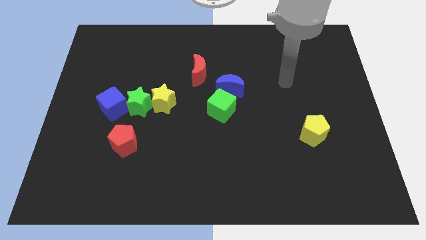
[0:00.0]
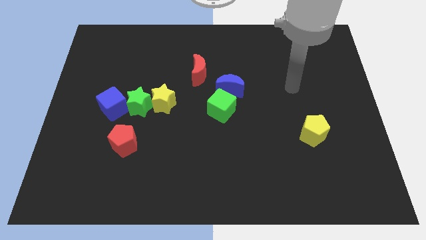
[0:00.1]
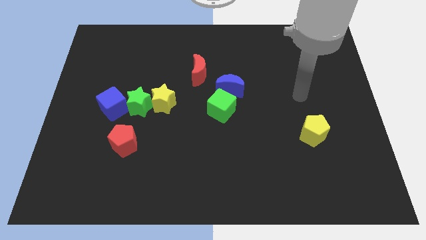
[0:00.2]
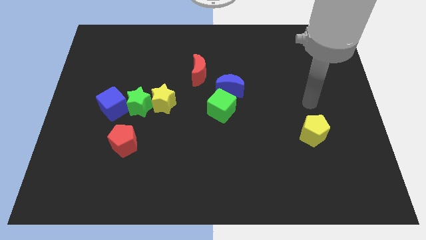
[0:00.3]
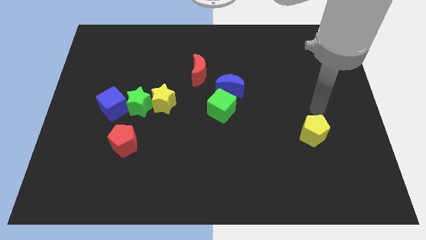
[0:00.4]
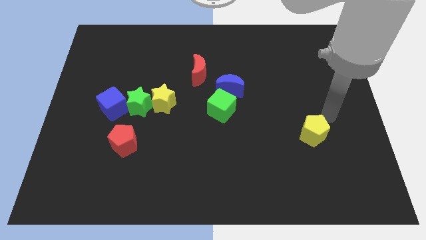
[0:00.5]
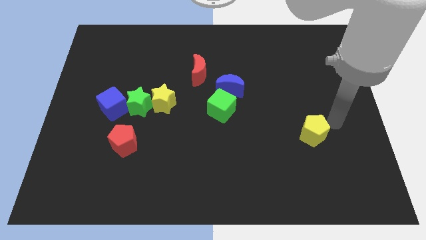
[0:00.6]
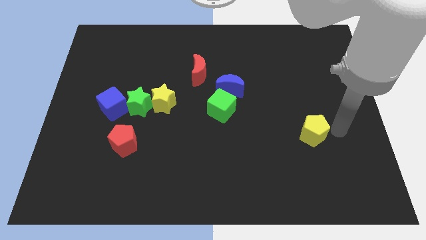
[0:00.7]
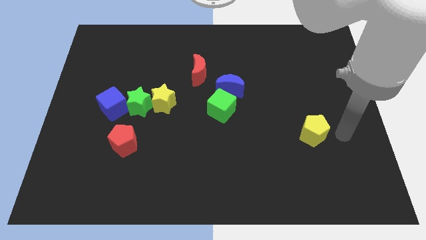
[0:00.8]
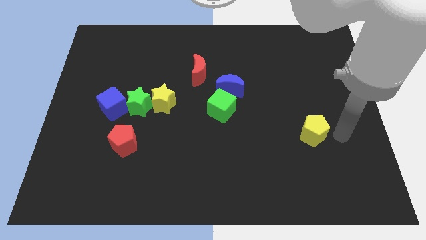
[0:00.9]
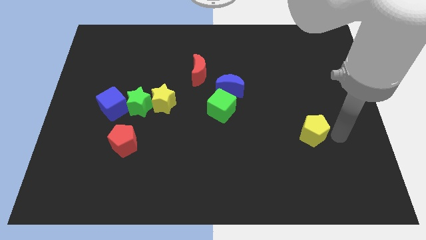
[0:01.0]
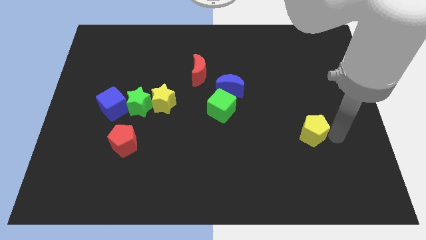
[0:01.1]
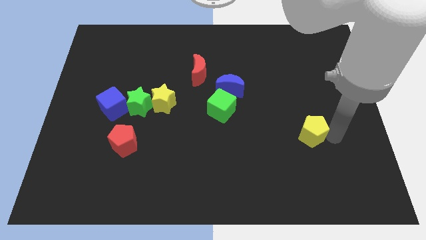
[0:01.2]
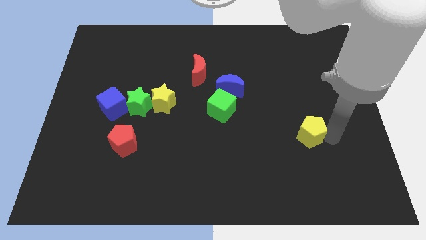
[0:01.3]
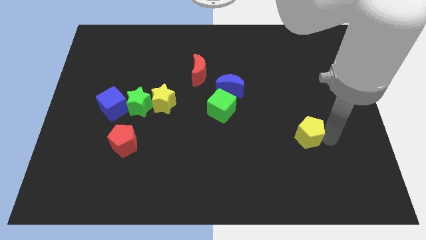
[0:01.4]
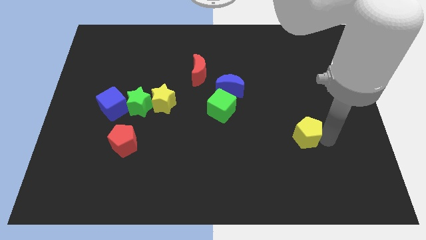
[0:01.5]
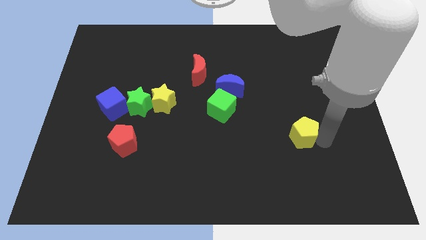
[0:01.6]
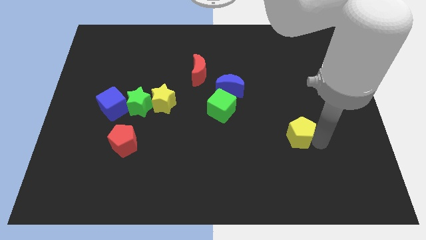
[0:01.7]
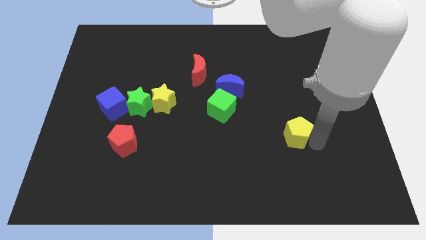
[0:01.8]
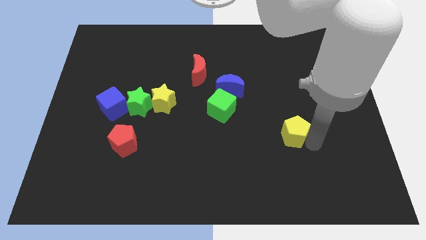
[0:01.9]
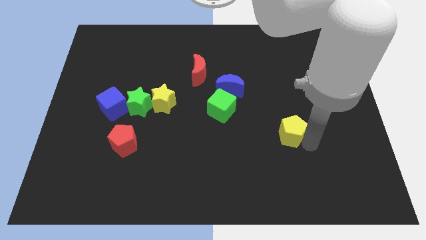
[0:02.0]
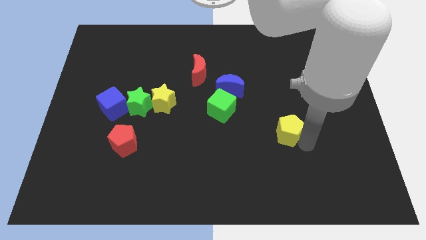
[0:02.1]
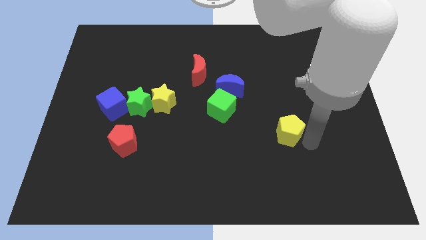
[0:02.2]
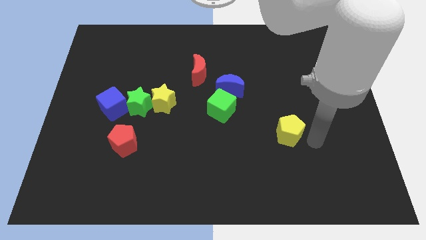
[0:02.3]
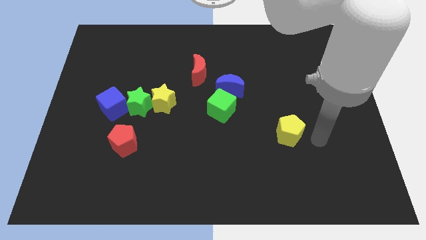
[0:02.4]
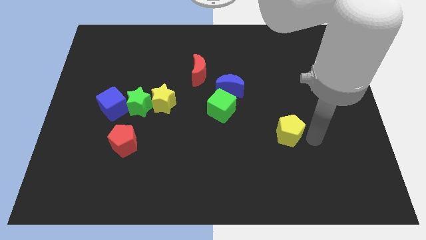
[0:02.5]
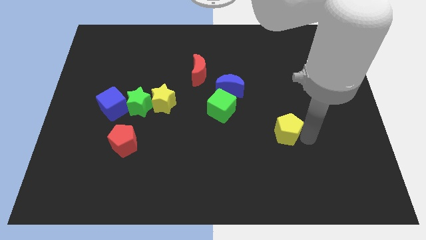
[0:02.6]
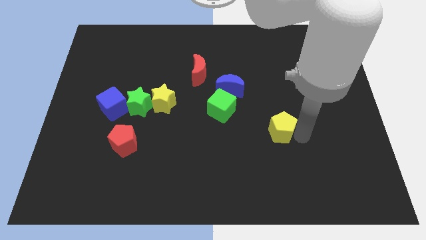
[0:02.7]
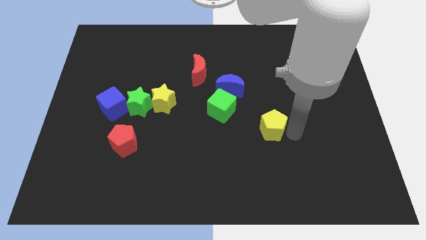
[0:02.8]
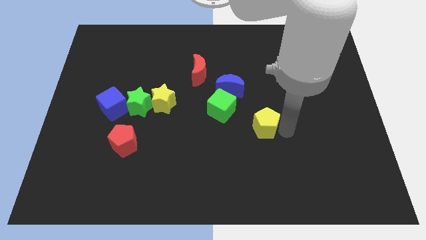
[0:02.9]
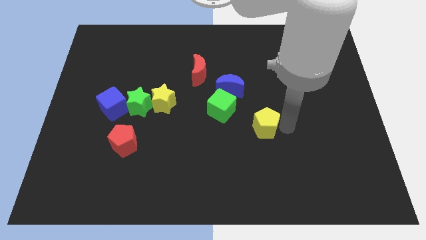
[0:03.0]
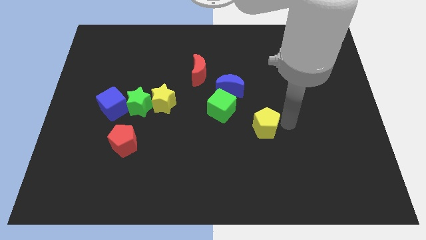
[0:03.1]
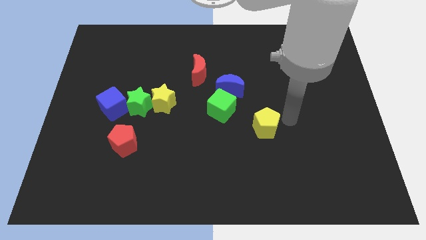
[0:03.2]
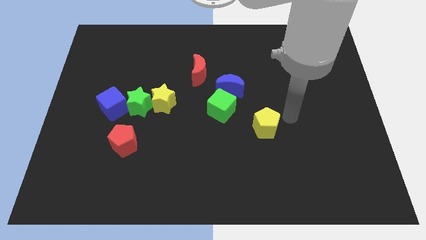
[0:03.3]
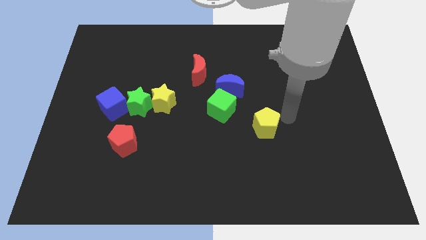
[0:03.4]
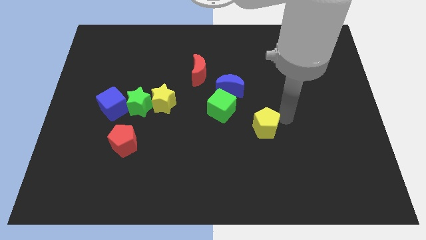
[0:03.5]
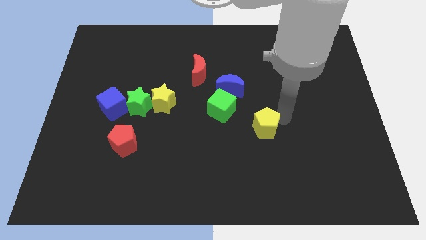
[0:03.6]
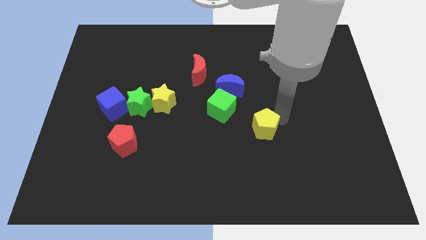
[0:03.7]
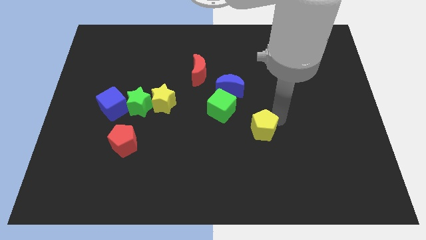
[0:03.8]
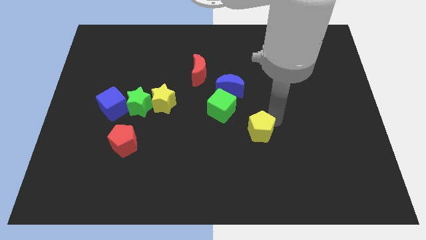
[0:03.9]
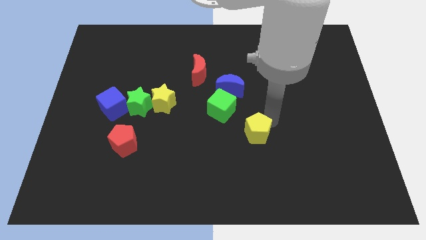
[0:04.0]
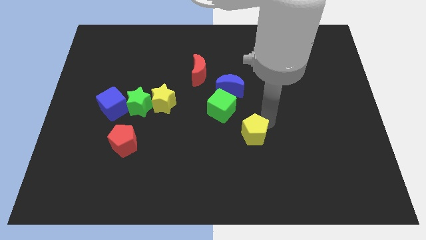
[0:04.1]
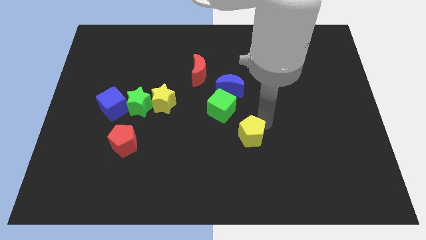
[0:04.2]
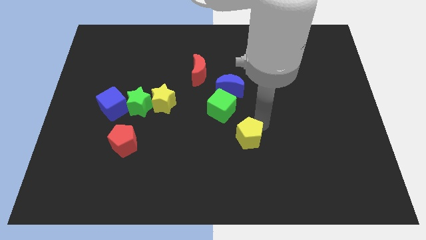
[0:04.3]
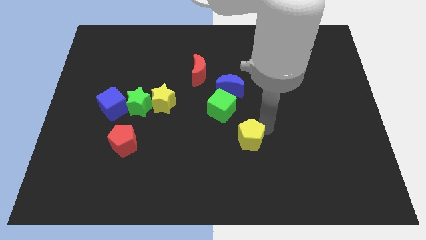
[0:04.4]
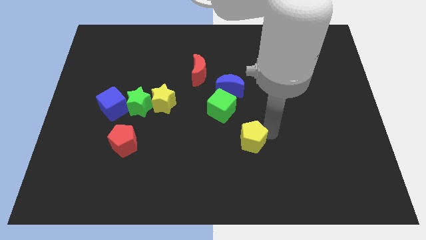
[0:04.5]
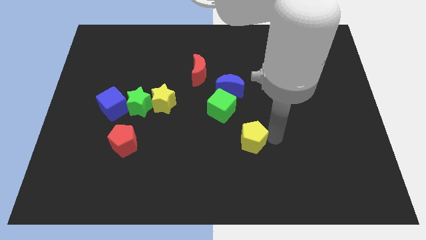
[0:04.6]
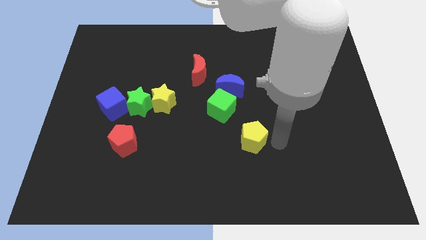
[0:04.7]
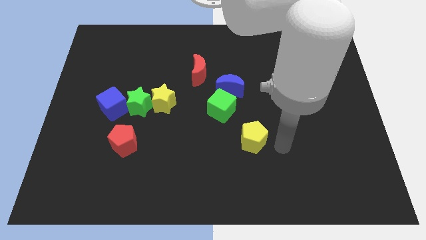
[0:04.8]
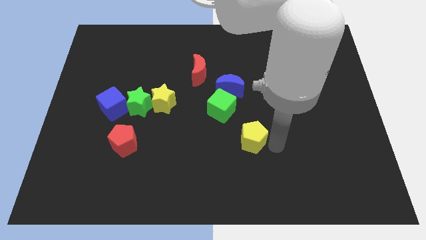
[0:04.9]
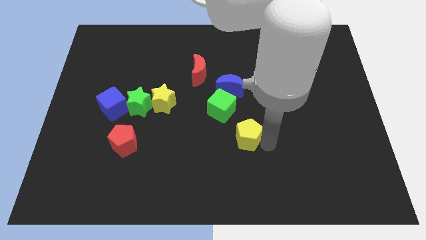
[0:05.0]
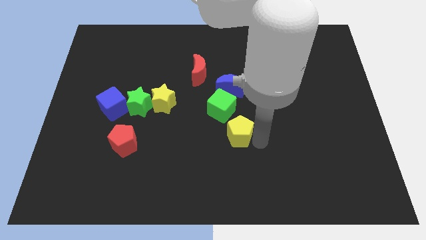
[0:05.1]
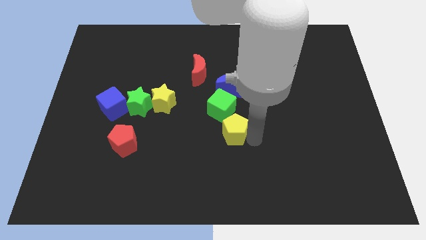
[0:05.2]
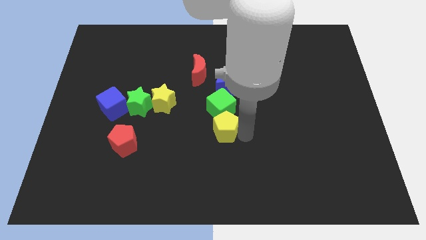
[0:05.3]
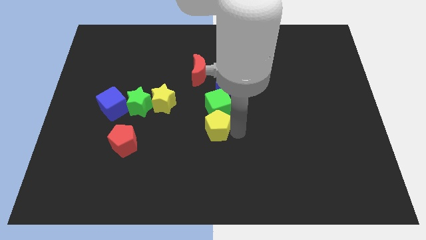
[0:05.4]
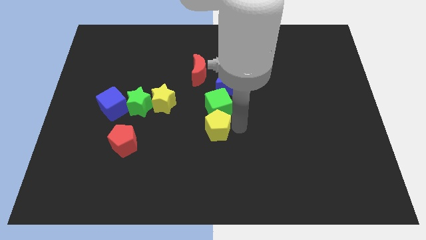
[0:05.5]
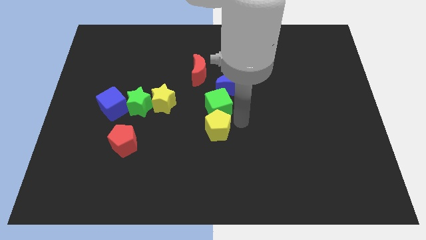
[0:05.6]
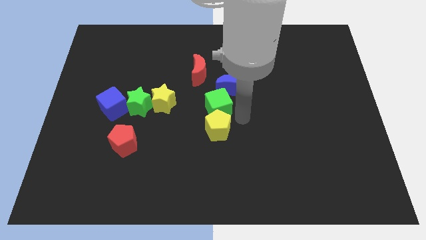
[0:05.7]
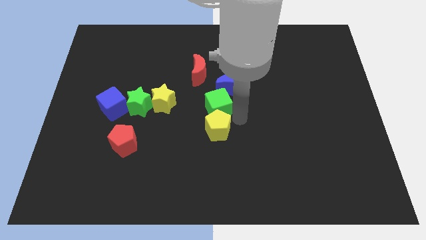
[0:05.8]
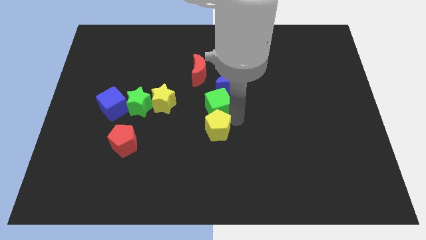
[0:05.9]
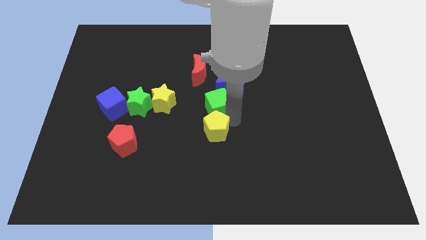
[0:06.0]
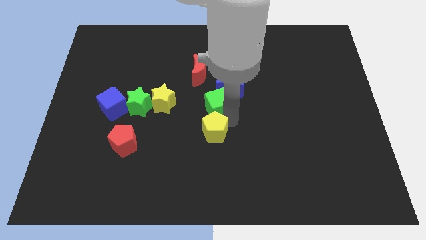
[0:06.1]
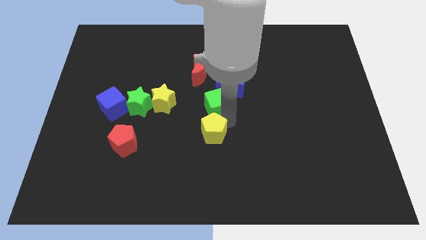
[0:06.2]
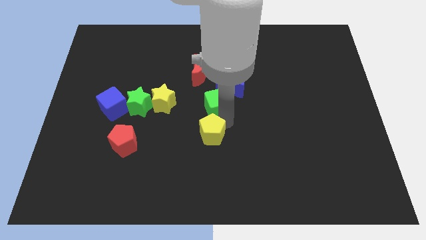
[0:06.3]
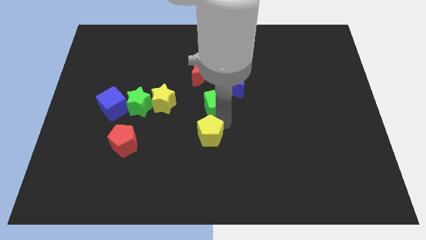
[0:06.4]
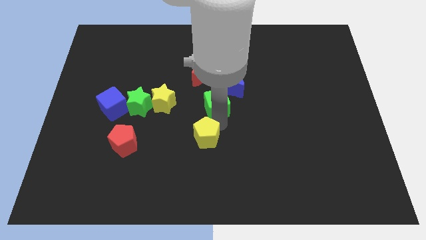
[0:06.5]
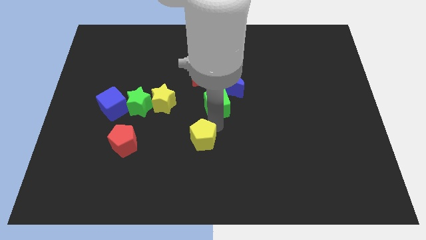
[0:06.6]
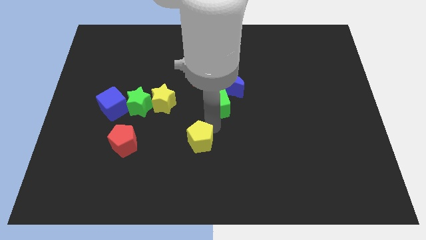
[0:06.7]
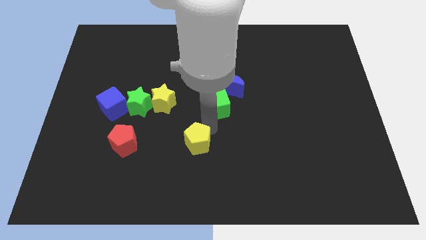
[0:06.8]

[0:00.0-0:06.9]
slide the yellow pentagon just right of the red pentagon
